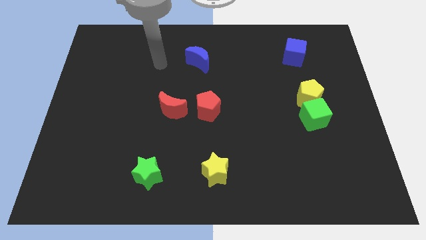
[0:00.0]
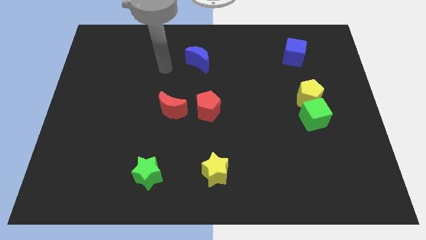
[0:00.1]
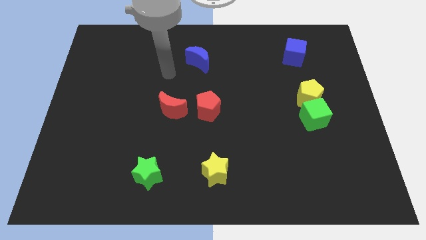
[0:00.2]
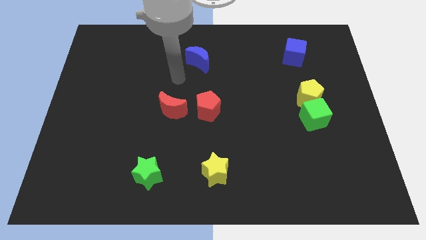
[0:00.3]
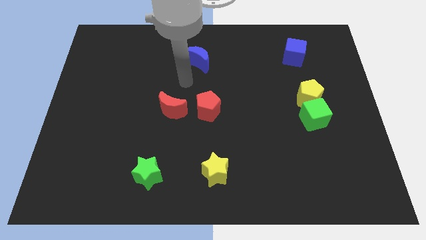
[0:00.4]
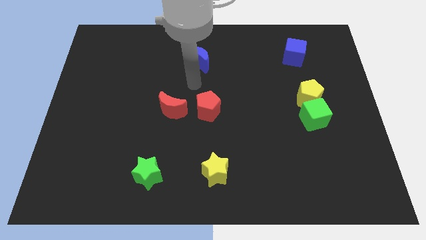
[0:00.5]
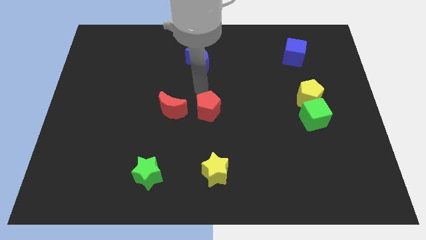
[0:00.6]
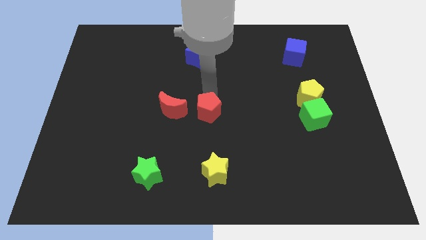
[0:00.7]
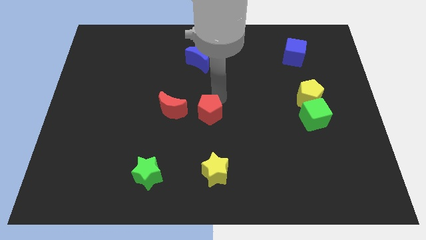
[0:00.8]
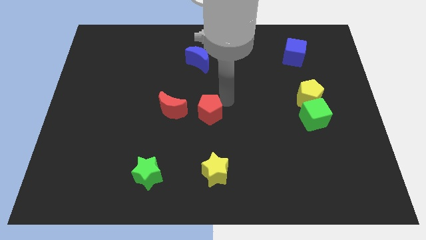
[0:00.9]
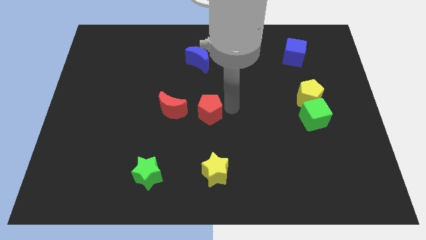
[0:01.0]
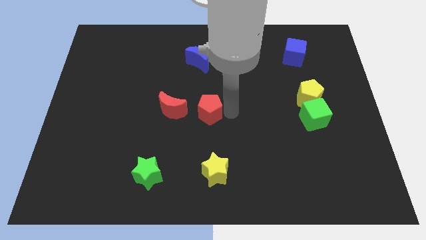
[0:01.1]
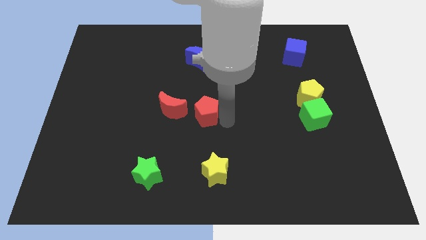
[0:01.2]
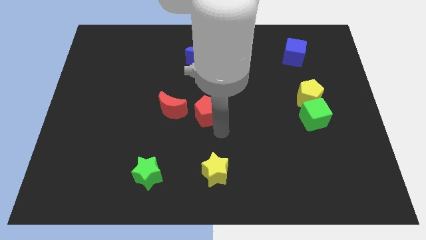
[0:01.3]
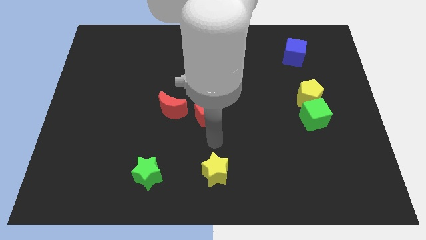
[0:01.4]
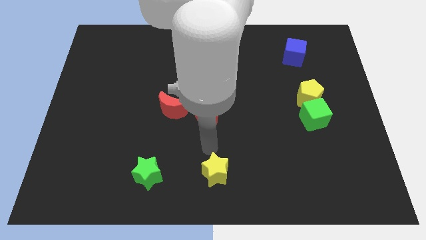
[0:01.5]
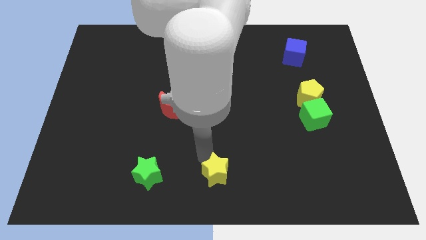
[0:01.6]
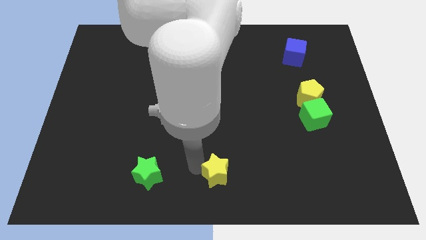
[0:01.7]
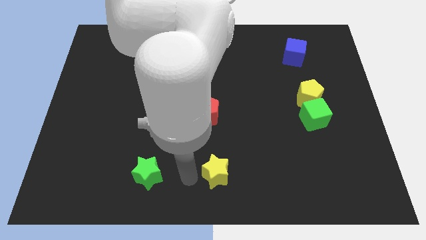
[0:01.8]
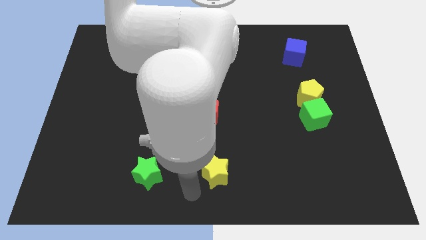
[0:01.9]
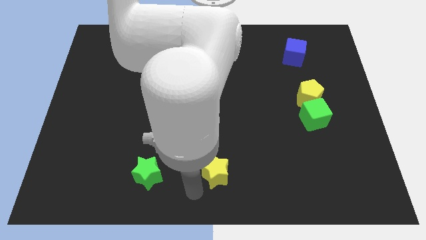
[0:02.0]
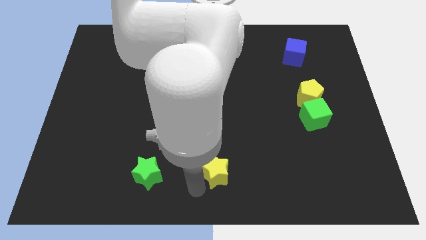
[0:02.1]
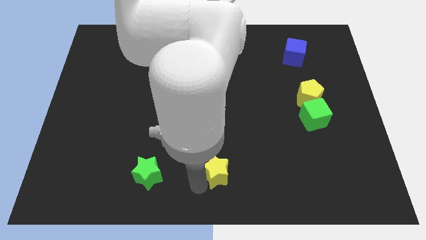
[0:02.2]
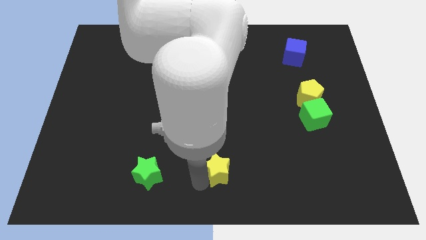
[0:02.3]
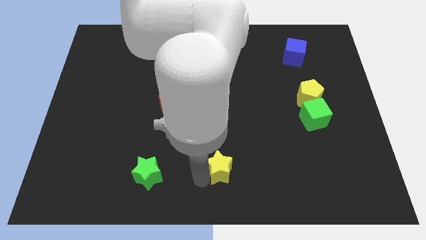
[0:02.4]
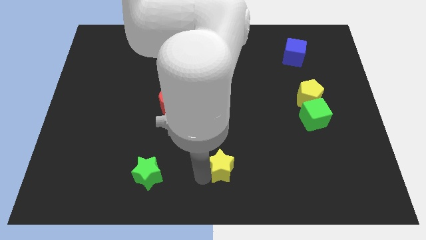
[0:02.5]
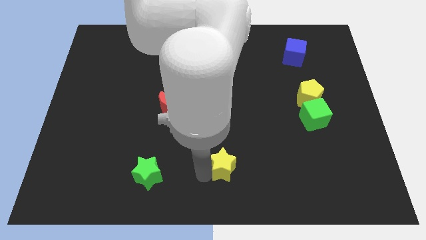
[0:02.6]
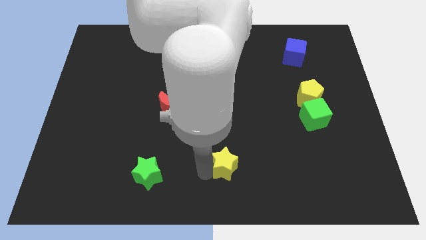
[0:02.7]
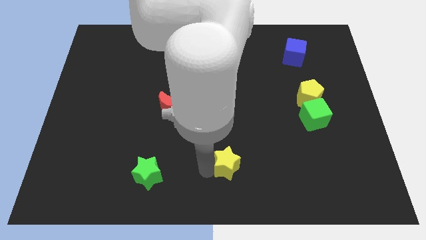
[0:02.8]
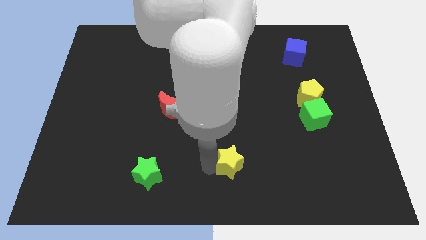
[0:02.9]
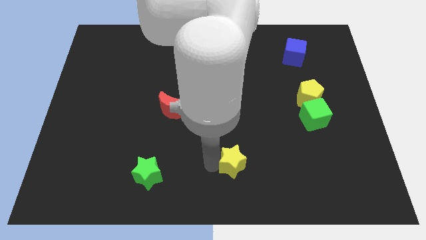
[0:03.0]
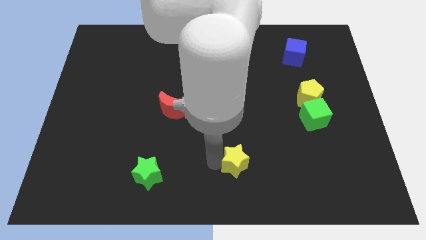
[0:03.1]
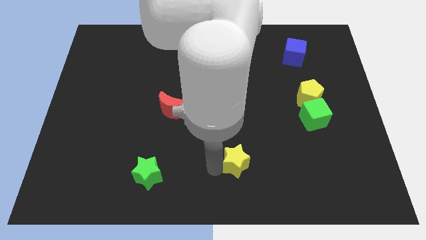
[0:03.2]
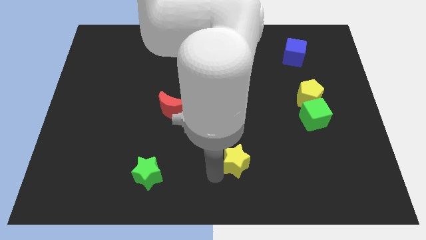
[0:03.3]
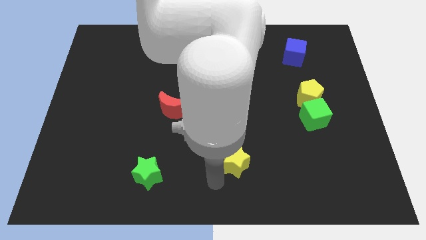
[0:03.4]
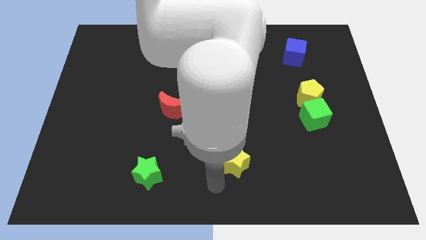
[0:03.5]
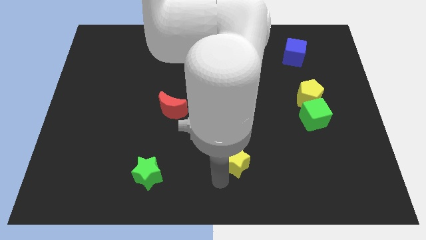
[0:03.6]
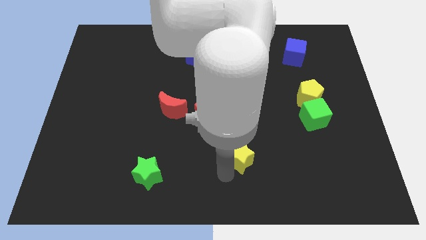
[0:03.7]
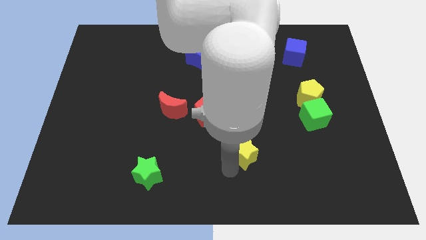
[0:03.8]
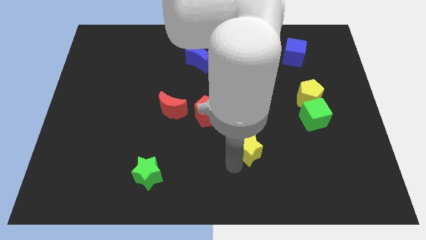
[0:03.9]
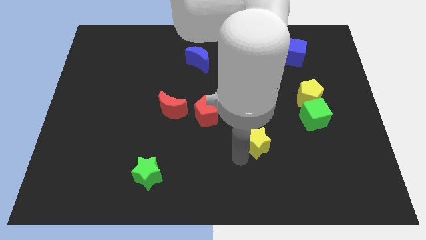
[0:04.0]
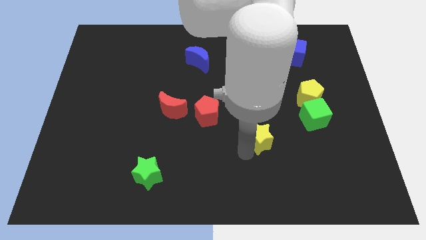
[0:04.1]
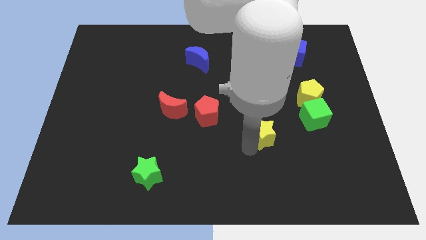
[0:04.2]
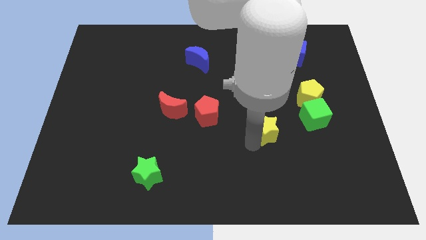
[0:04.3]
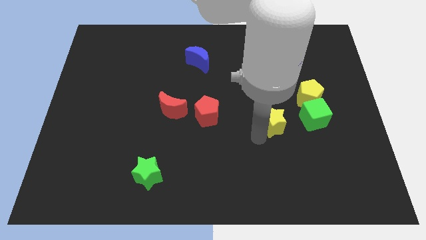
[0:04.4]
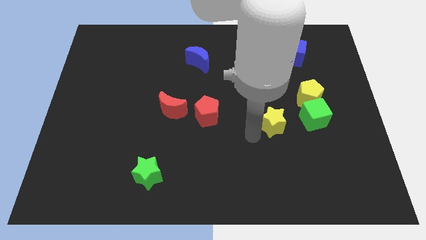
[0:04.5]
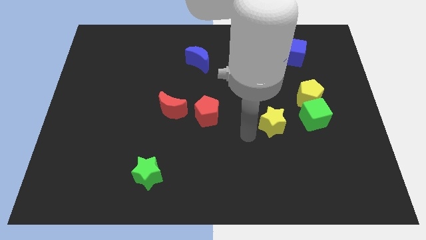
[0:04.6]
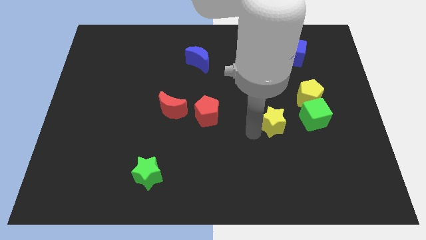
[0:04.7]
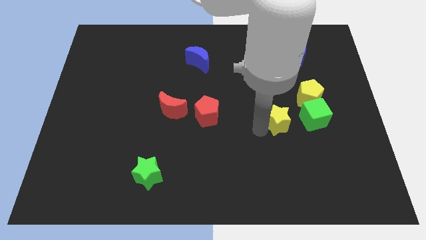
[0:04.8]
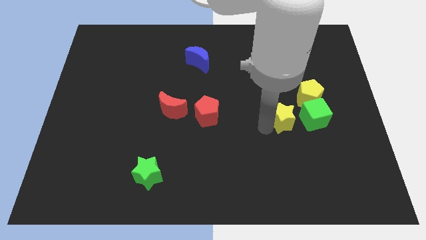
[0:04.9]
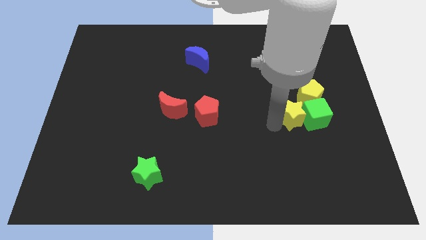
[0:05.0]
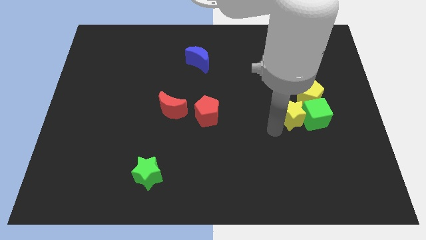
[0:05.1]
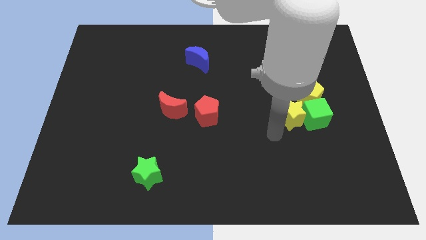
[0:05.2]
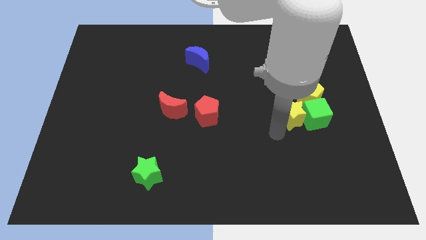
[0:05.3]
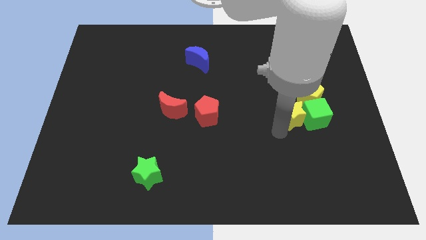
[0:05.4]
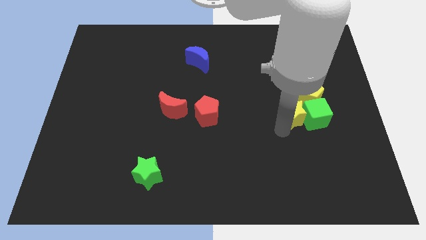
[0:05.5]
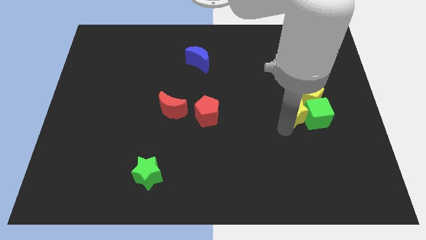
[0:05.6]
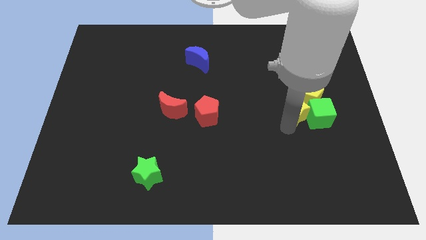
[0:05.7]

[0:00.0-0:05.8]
move the yellow star close to the yellow pentagon

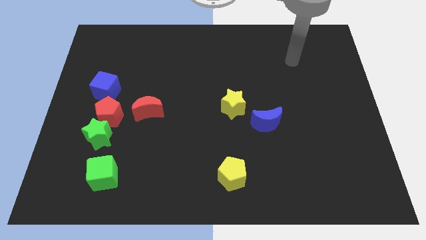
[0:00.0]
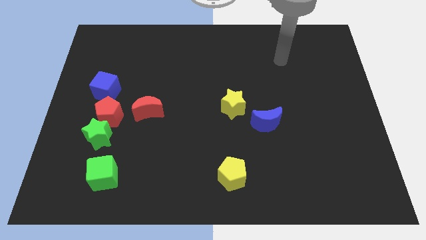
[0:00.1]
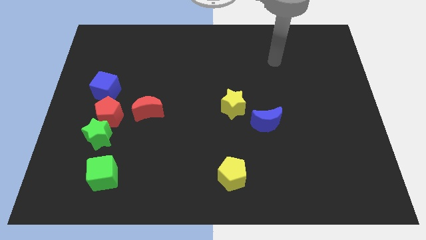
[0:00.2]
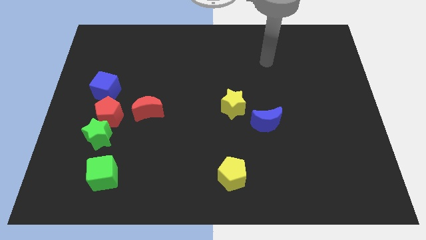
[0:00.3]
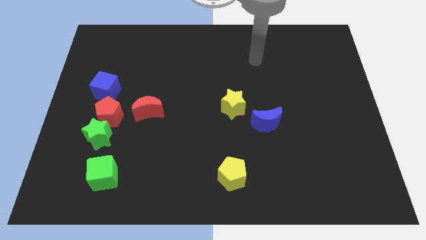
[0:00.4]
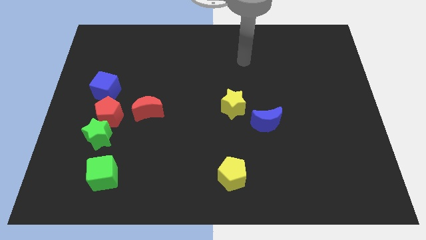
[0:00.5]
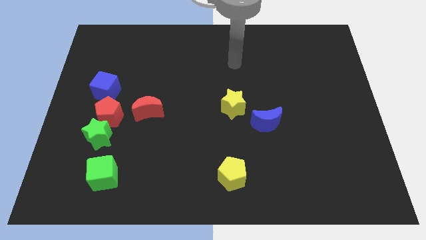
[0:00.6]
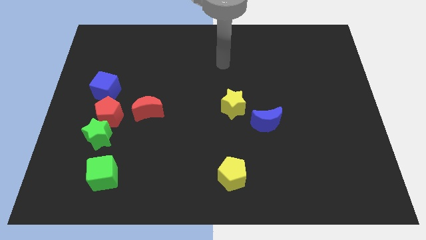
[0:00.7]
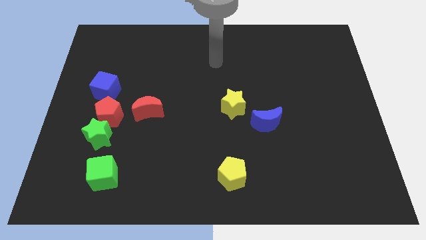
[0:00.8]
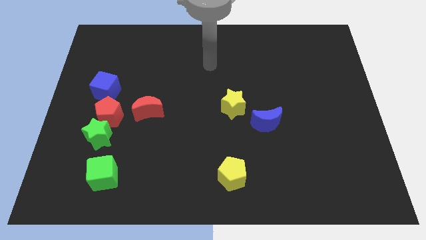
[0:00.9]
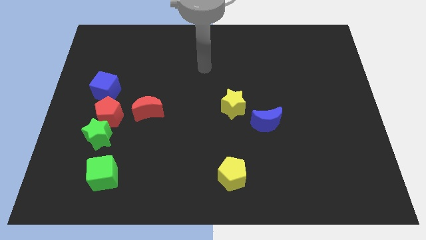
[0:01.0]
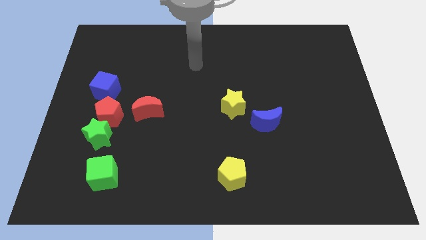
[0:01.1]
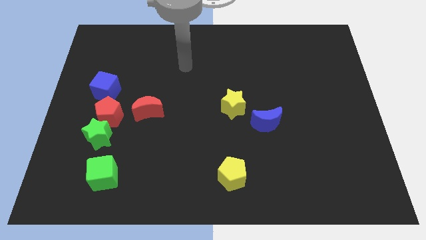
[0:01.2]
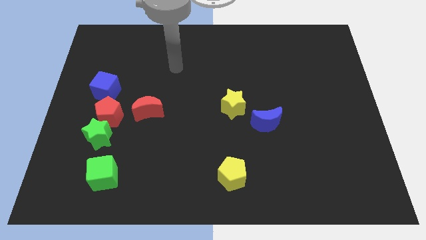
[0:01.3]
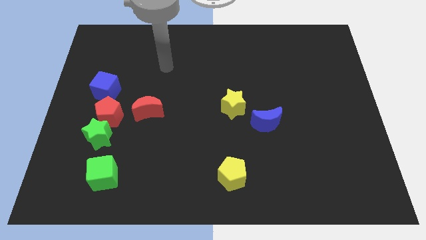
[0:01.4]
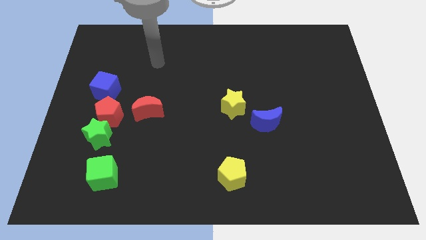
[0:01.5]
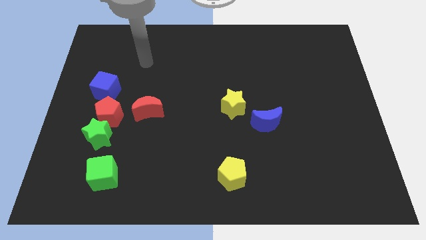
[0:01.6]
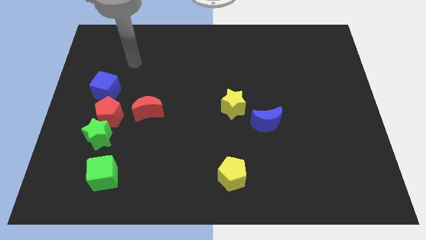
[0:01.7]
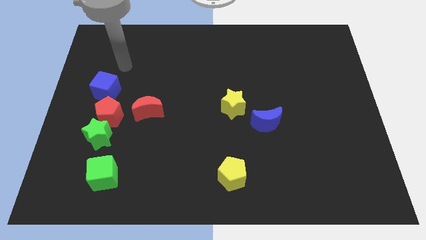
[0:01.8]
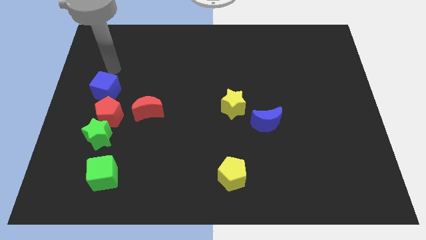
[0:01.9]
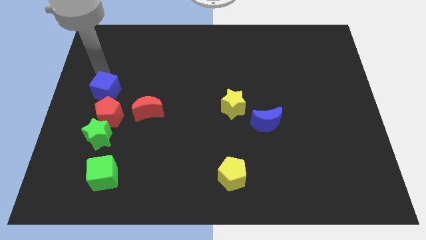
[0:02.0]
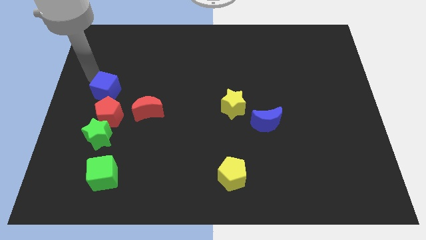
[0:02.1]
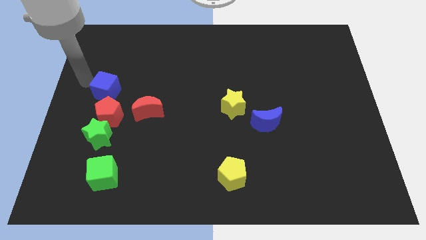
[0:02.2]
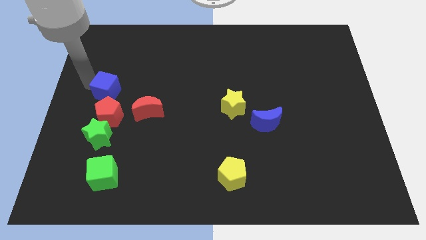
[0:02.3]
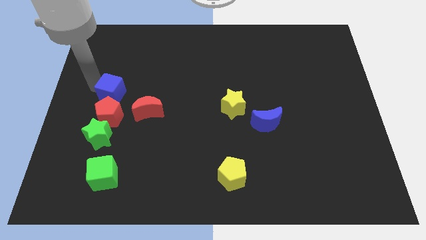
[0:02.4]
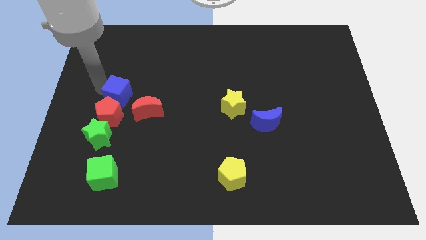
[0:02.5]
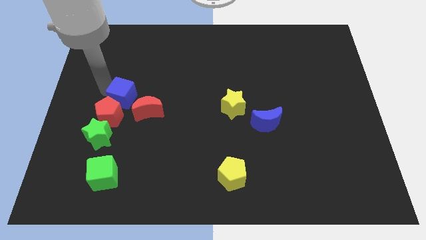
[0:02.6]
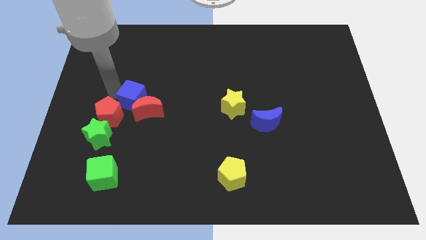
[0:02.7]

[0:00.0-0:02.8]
push the blue cube close to the red moon

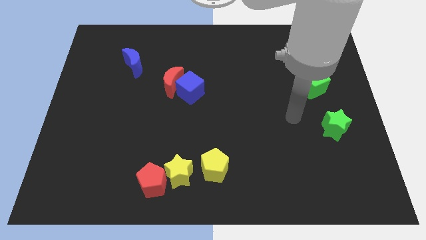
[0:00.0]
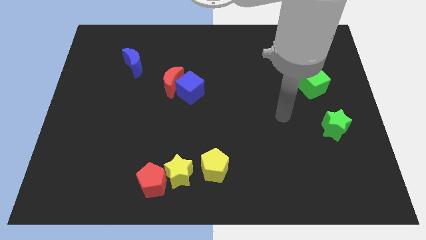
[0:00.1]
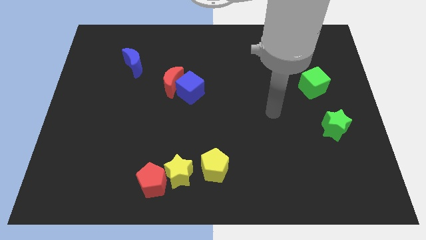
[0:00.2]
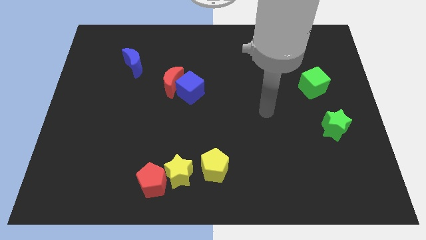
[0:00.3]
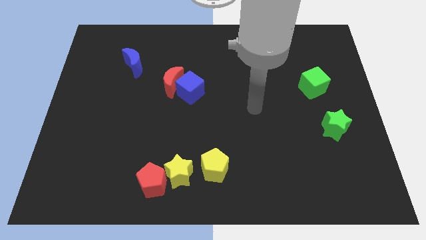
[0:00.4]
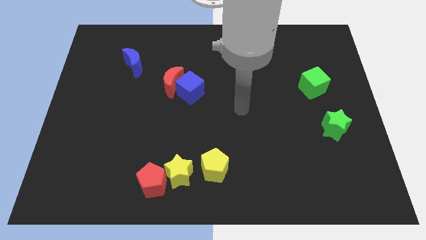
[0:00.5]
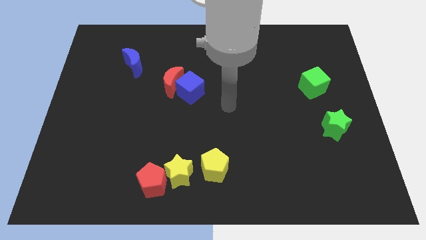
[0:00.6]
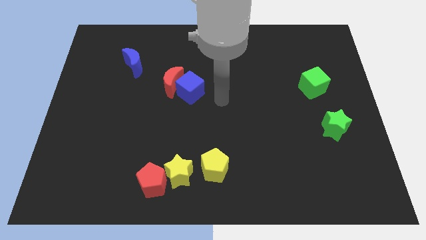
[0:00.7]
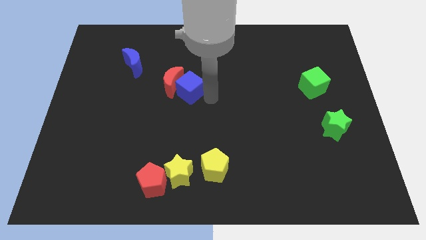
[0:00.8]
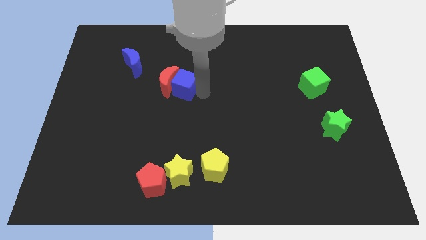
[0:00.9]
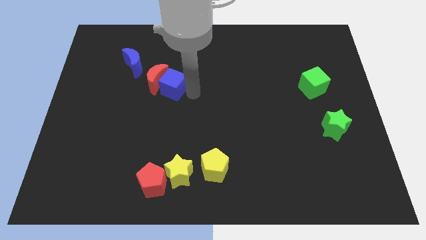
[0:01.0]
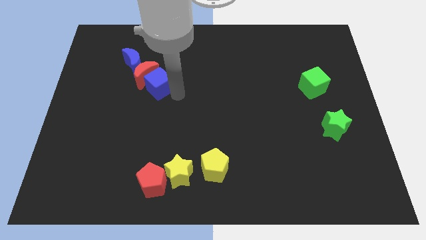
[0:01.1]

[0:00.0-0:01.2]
push the red moon to the blue moon
